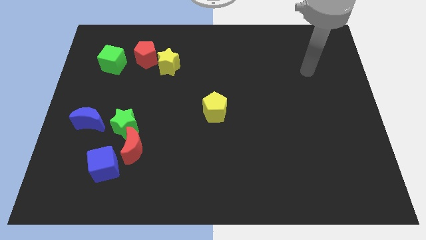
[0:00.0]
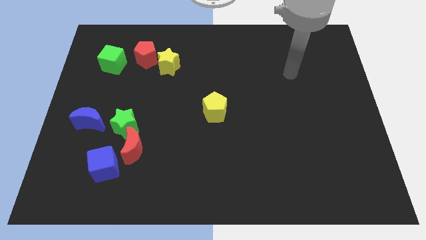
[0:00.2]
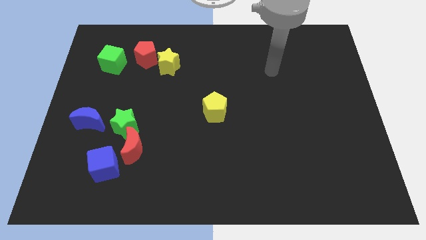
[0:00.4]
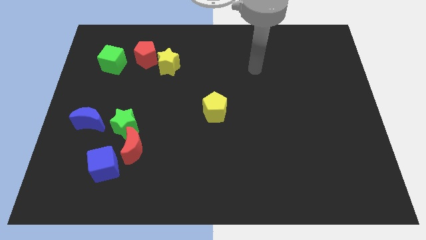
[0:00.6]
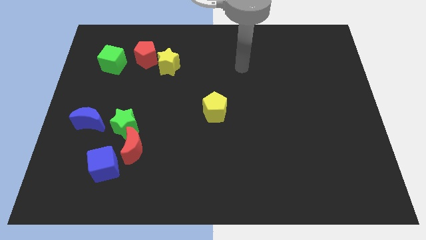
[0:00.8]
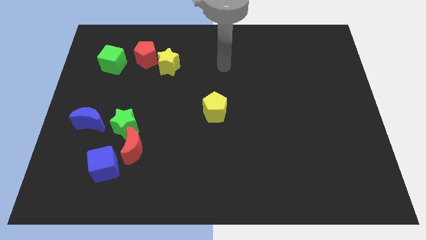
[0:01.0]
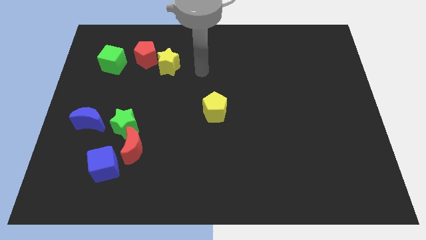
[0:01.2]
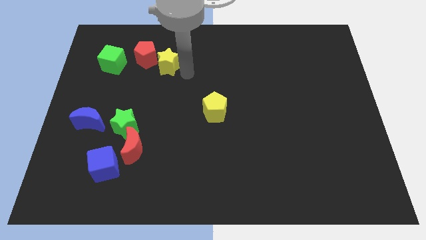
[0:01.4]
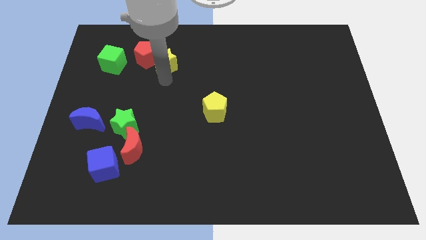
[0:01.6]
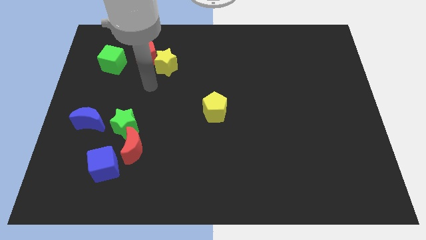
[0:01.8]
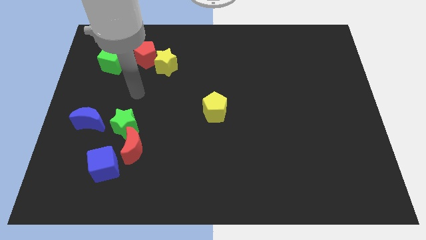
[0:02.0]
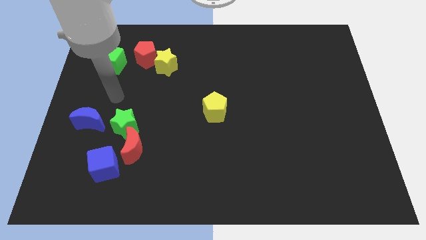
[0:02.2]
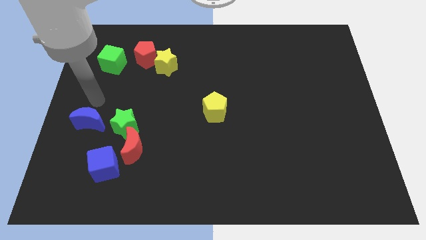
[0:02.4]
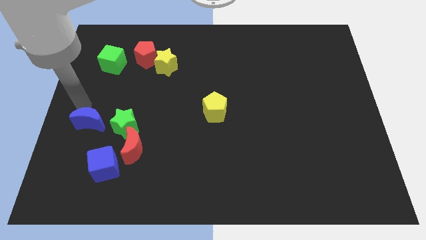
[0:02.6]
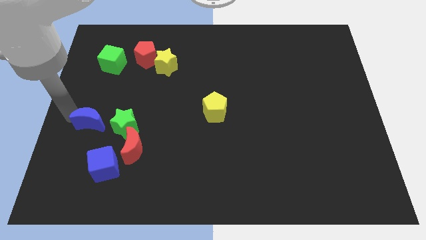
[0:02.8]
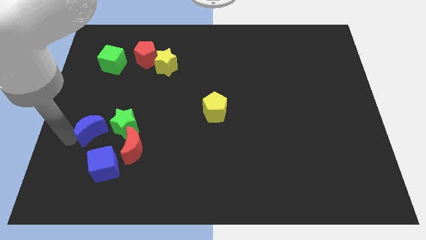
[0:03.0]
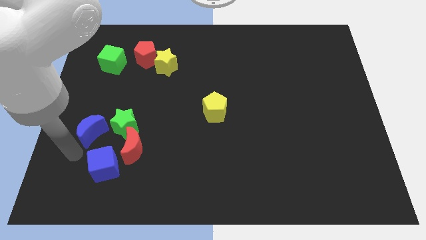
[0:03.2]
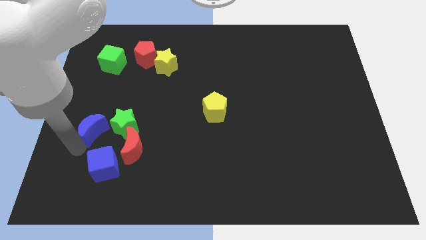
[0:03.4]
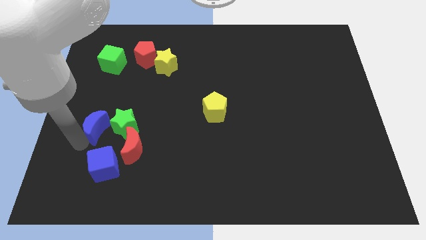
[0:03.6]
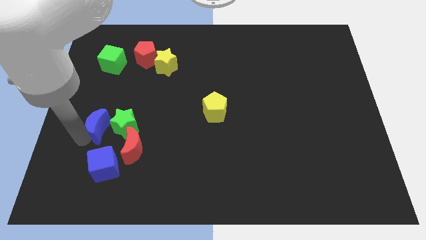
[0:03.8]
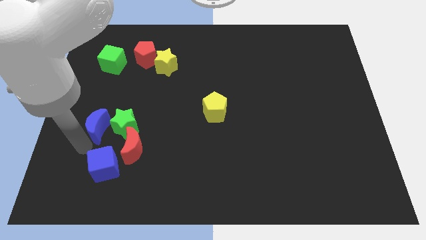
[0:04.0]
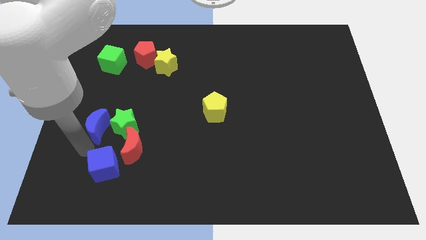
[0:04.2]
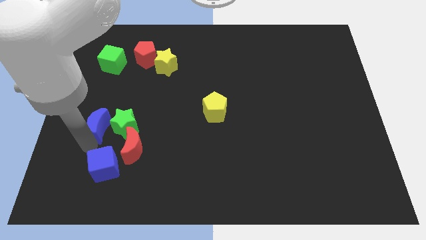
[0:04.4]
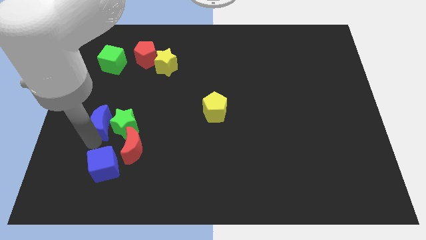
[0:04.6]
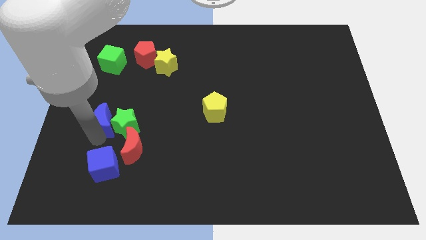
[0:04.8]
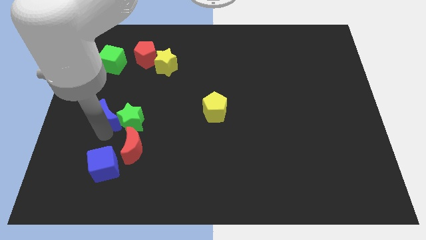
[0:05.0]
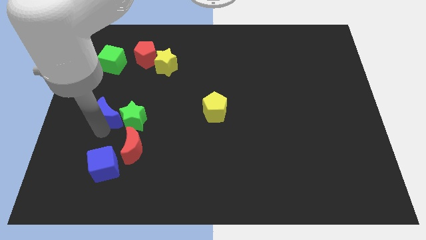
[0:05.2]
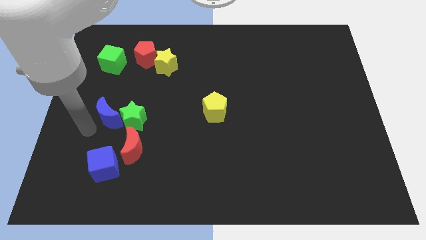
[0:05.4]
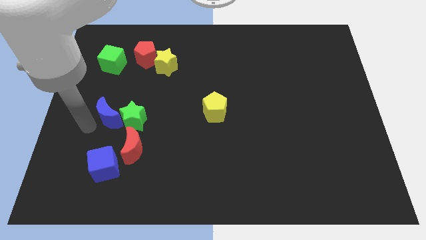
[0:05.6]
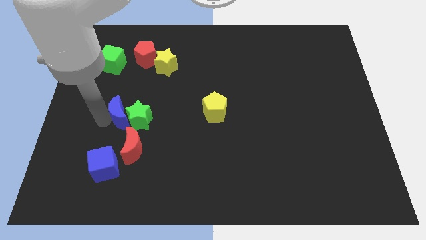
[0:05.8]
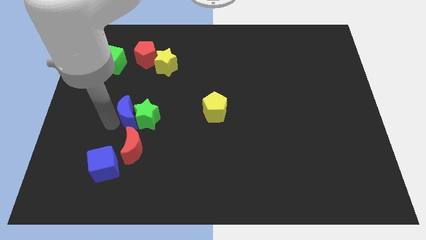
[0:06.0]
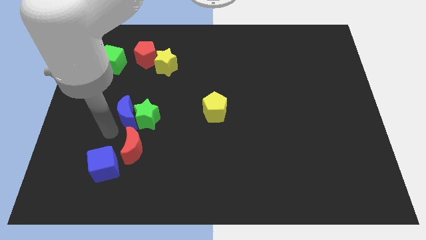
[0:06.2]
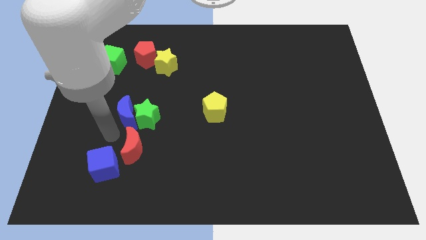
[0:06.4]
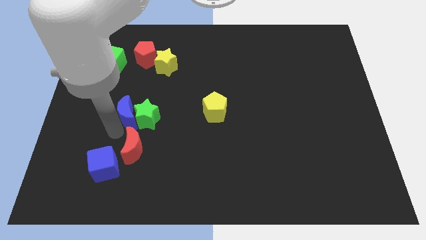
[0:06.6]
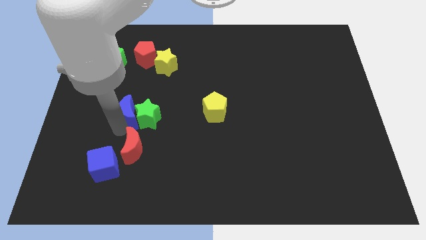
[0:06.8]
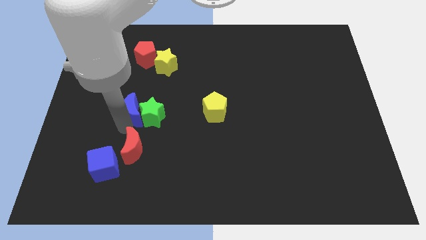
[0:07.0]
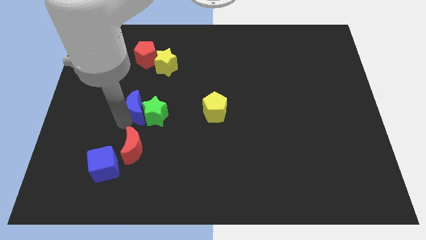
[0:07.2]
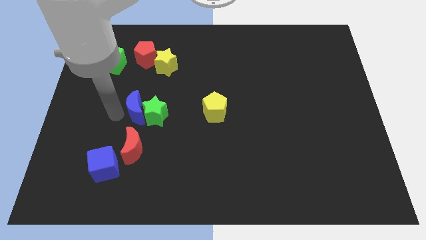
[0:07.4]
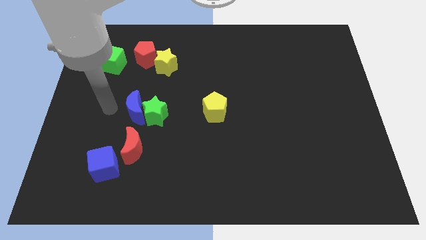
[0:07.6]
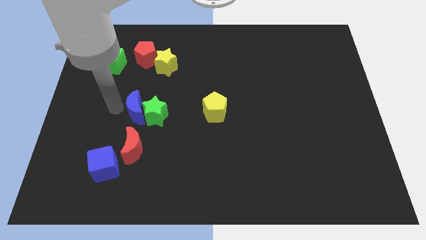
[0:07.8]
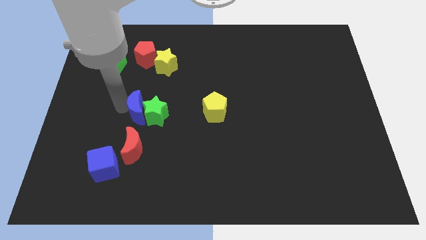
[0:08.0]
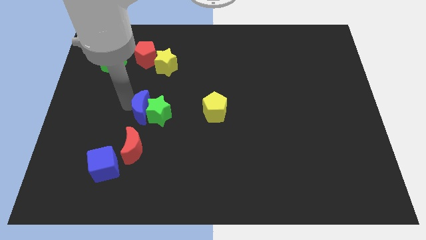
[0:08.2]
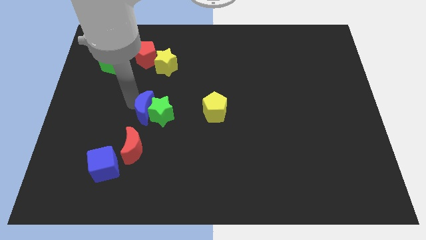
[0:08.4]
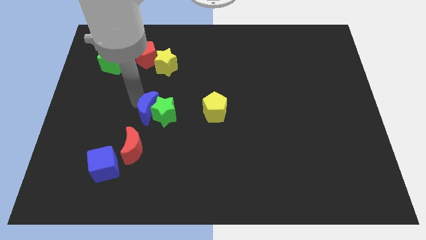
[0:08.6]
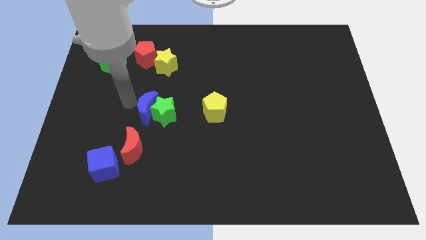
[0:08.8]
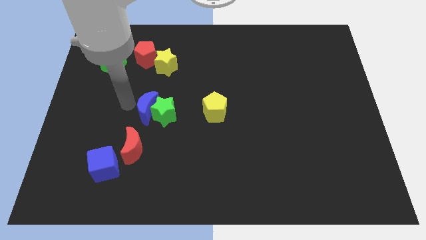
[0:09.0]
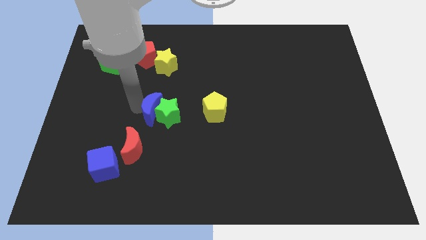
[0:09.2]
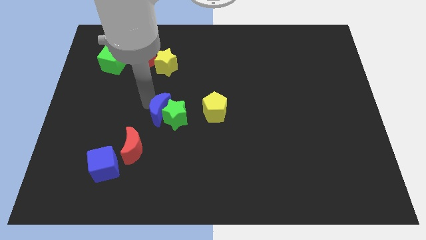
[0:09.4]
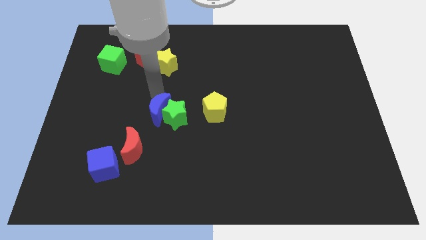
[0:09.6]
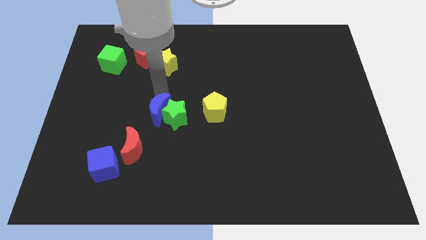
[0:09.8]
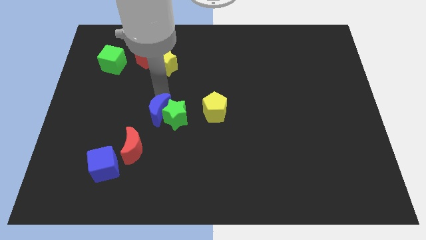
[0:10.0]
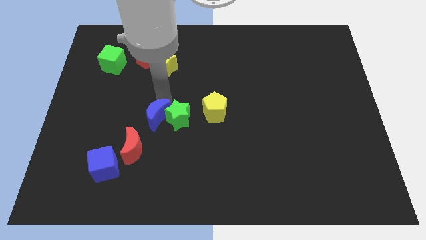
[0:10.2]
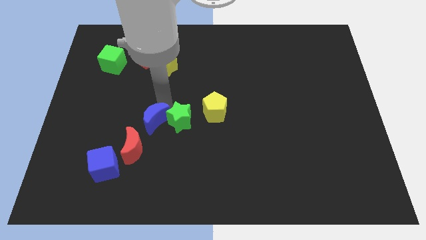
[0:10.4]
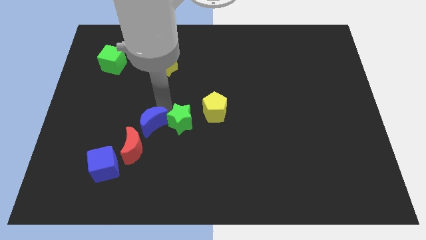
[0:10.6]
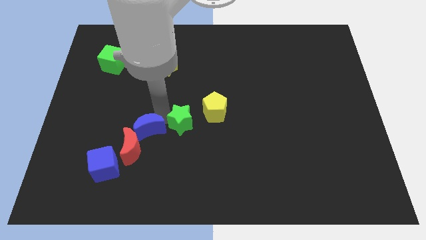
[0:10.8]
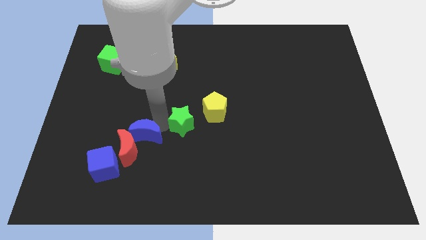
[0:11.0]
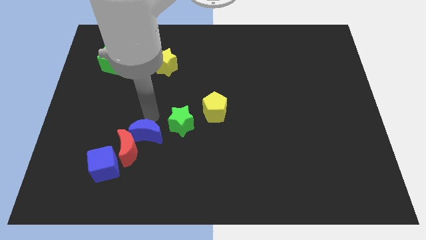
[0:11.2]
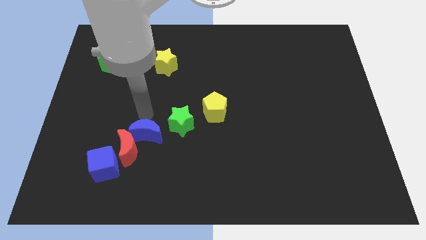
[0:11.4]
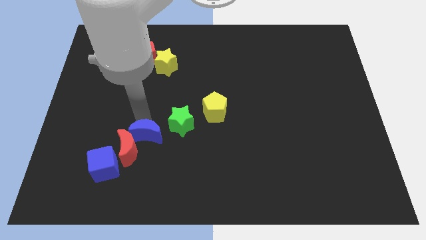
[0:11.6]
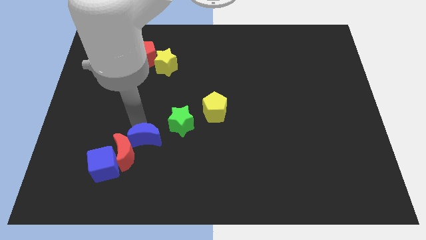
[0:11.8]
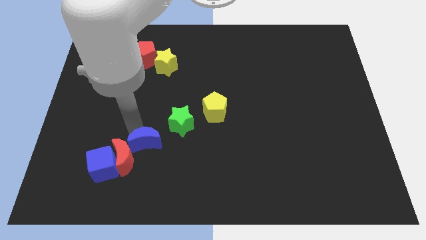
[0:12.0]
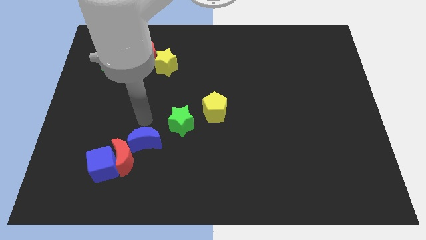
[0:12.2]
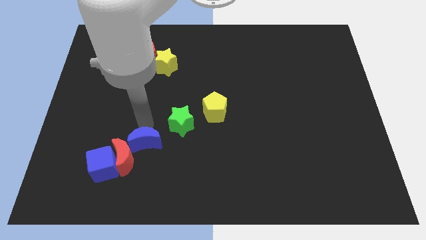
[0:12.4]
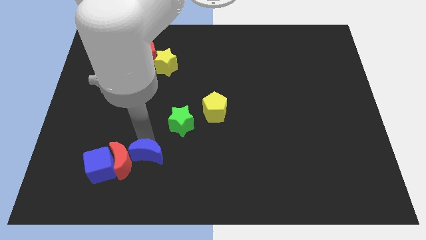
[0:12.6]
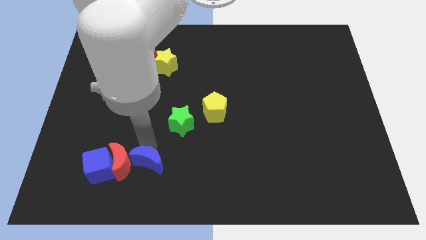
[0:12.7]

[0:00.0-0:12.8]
slide the blue moon diagonally down and to the right of the red moon
